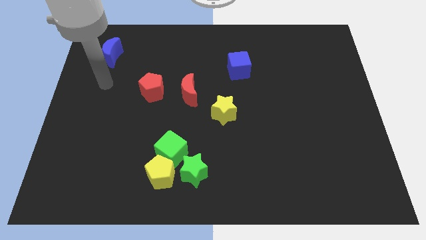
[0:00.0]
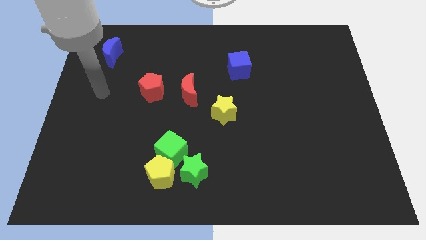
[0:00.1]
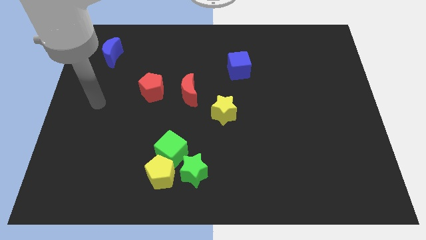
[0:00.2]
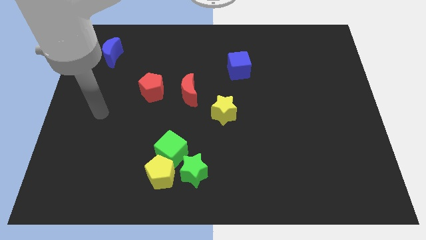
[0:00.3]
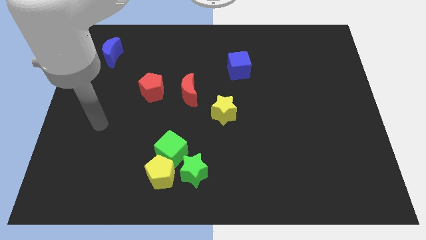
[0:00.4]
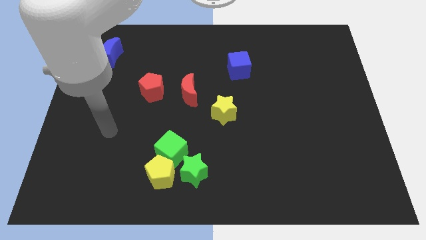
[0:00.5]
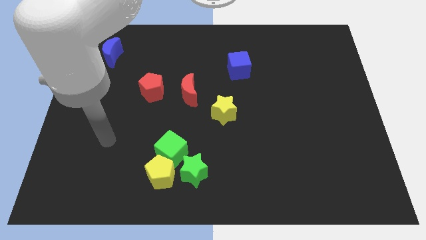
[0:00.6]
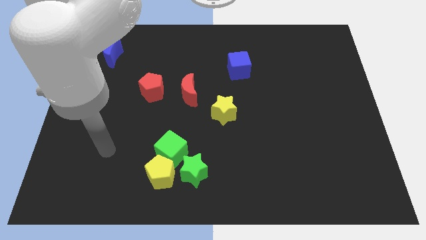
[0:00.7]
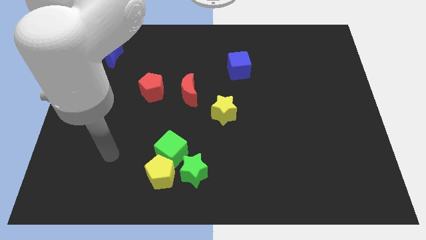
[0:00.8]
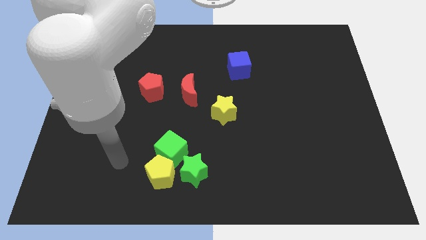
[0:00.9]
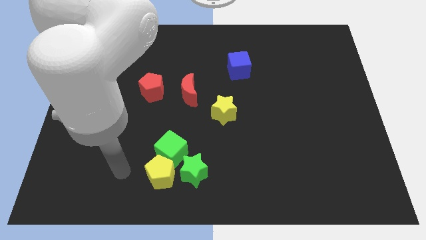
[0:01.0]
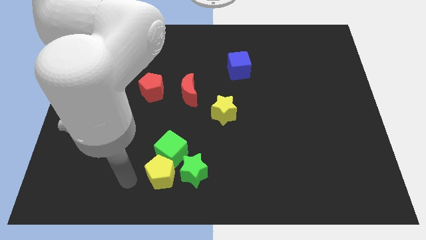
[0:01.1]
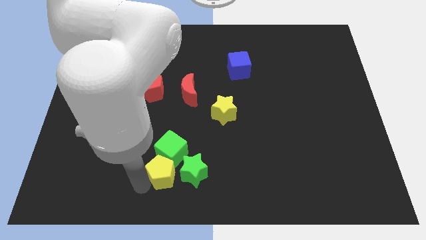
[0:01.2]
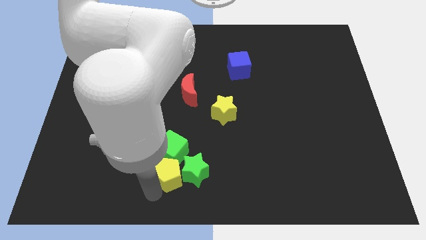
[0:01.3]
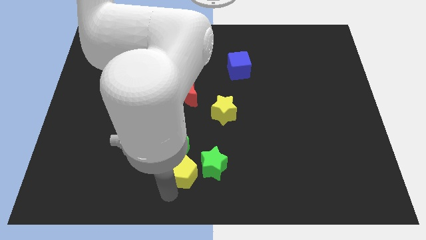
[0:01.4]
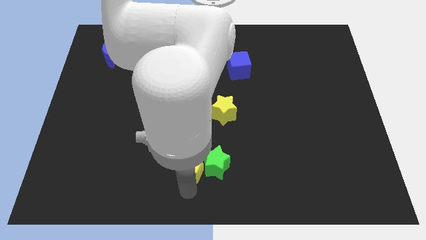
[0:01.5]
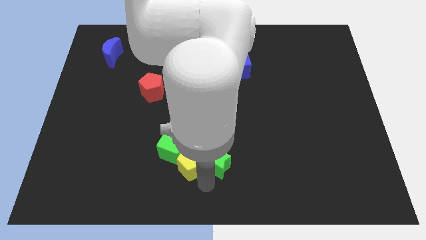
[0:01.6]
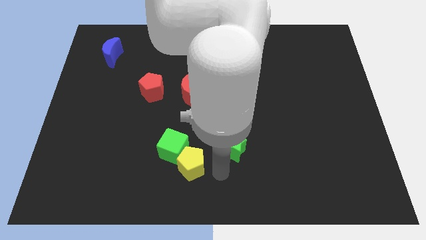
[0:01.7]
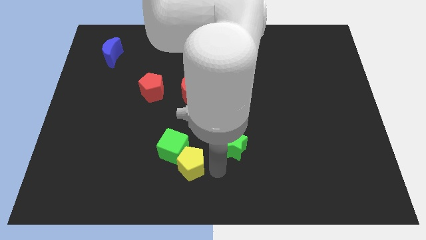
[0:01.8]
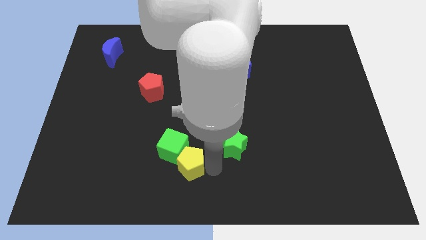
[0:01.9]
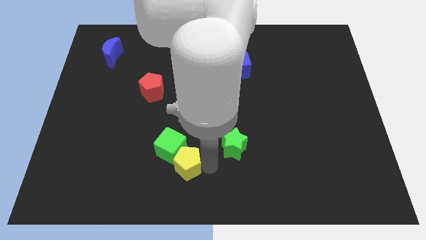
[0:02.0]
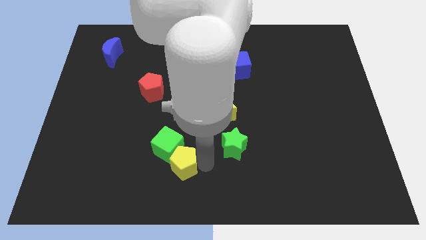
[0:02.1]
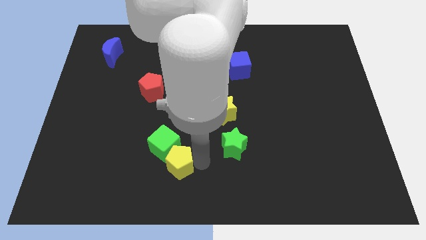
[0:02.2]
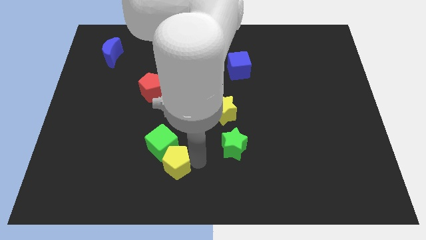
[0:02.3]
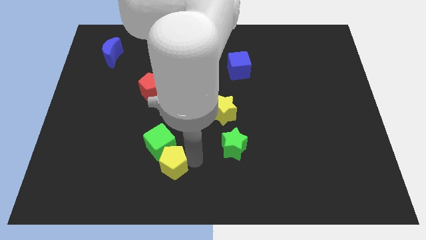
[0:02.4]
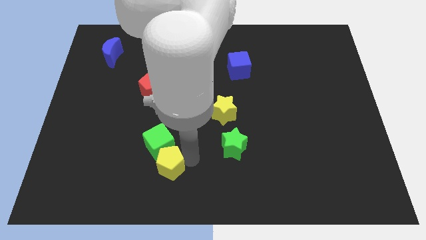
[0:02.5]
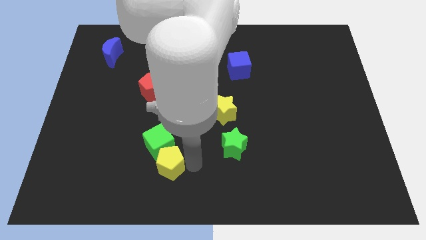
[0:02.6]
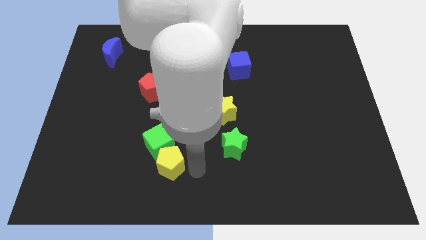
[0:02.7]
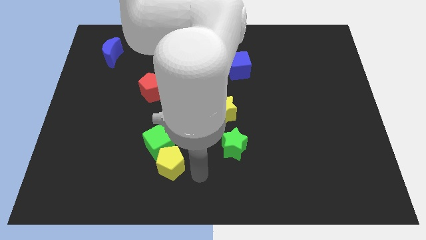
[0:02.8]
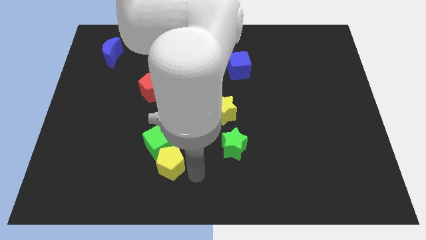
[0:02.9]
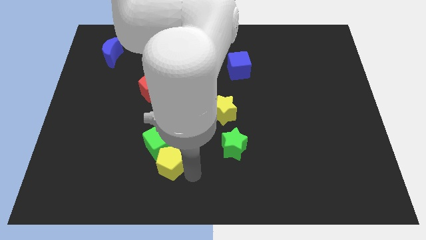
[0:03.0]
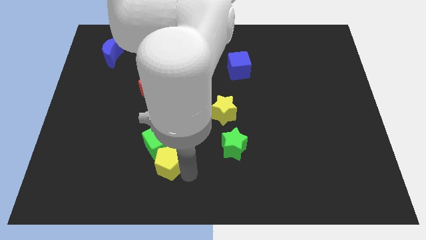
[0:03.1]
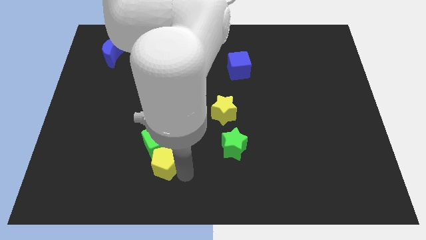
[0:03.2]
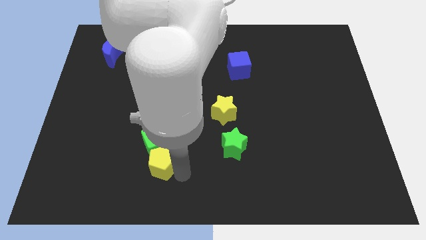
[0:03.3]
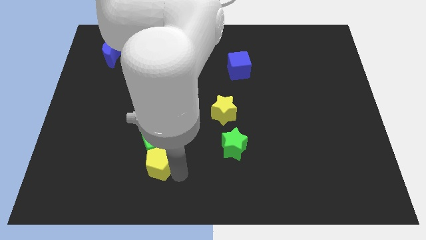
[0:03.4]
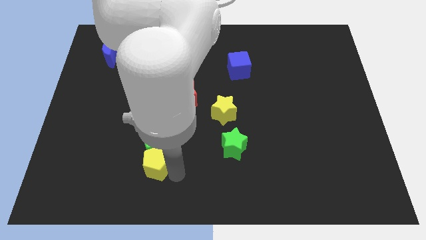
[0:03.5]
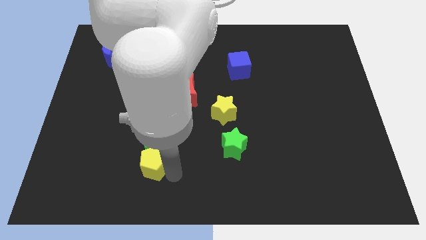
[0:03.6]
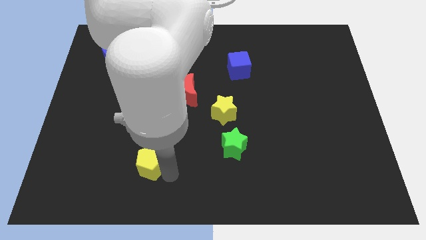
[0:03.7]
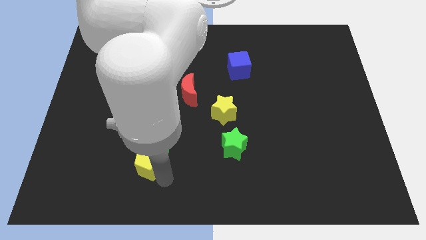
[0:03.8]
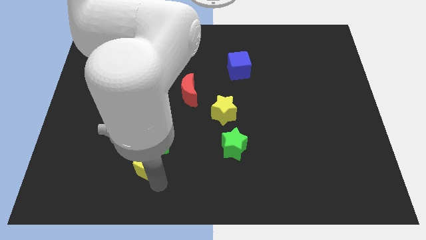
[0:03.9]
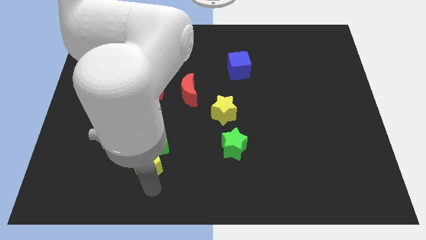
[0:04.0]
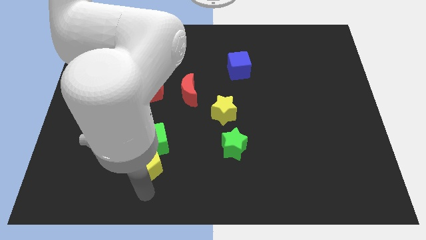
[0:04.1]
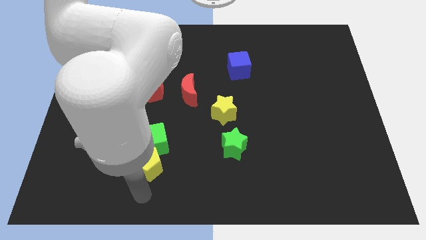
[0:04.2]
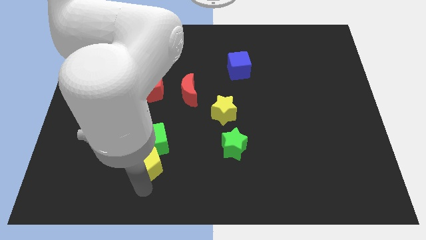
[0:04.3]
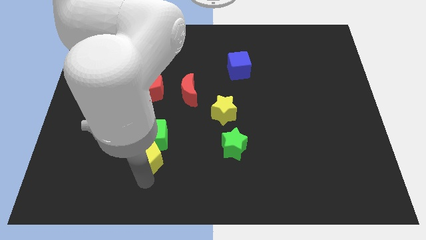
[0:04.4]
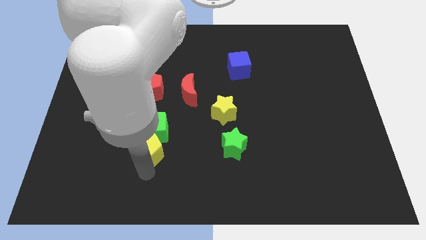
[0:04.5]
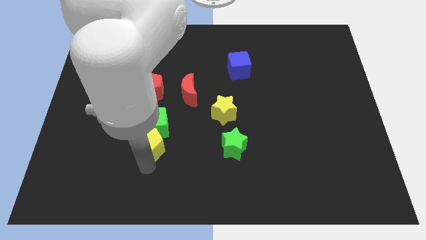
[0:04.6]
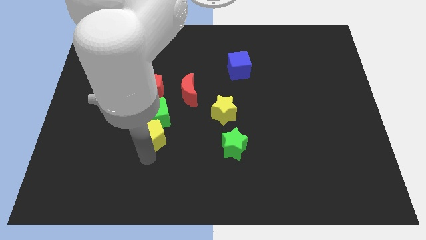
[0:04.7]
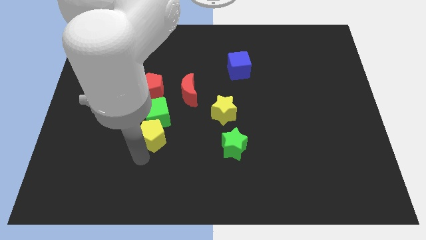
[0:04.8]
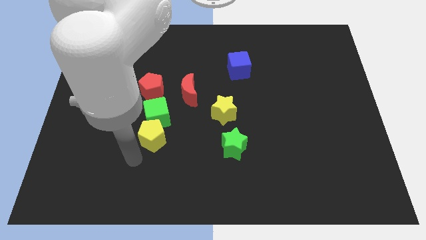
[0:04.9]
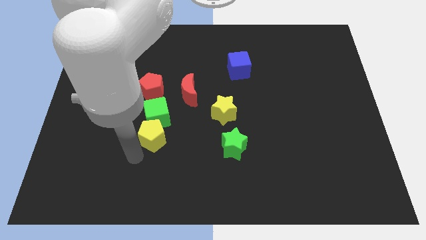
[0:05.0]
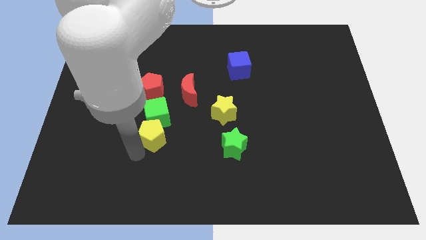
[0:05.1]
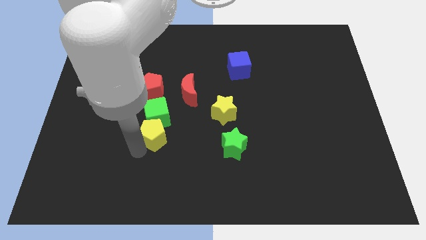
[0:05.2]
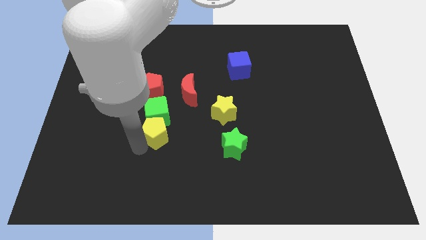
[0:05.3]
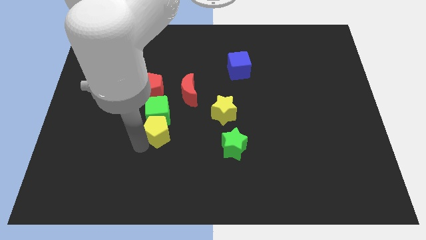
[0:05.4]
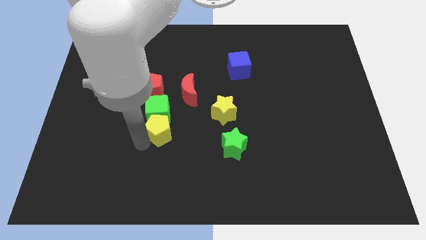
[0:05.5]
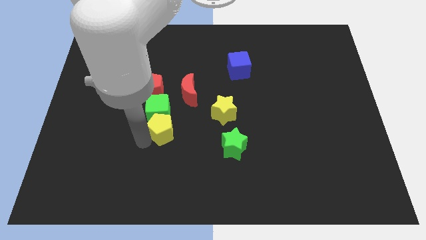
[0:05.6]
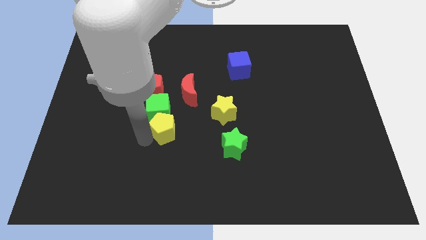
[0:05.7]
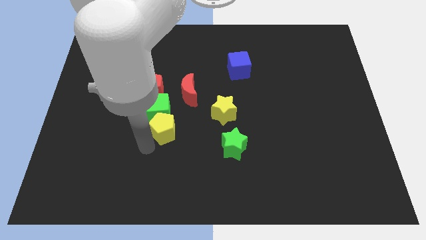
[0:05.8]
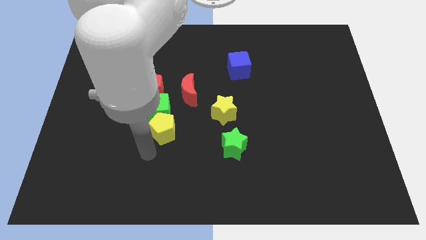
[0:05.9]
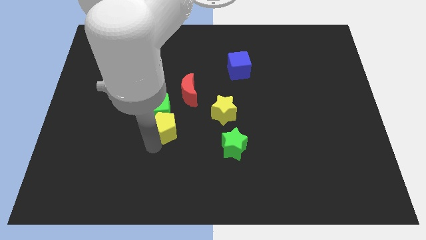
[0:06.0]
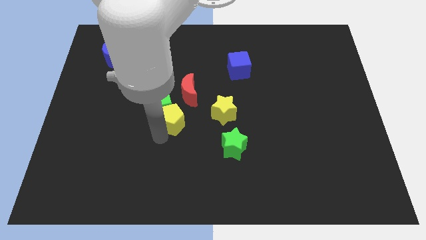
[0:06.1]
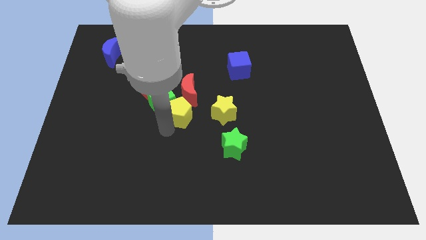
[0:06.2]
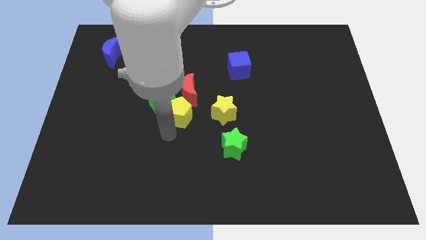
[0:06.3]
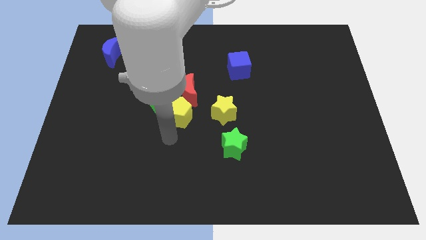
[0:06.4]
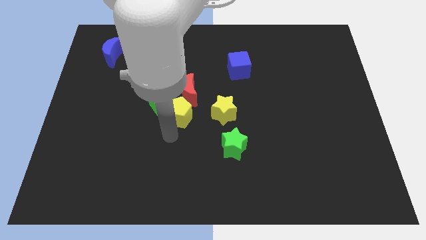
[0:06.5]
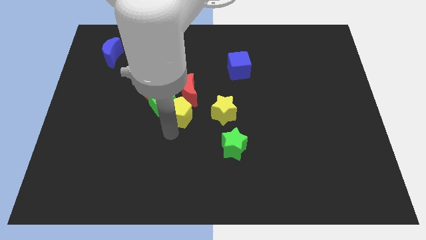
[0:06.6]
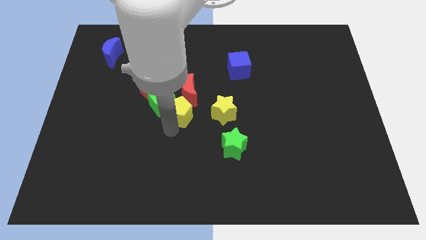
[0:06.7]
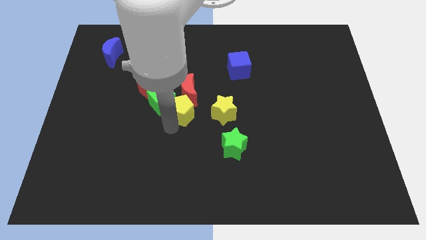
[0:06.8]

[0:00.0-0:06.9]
slide the yellow pentagon towards the red moon

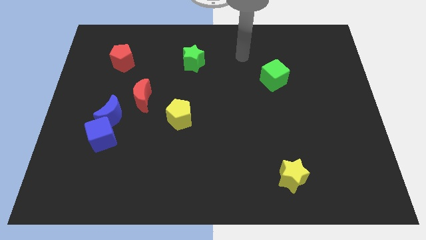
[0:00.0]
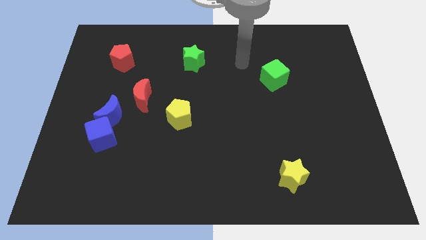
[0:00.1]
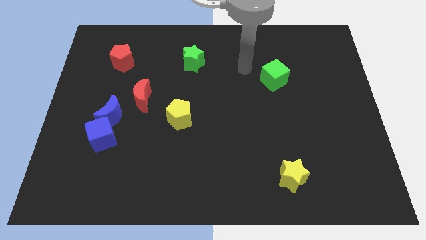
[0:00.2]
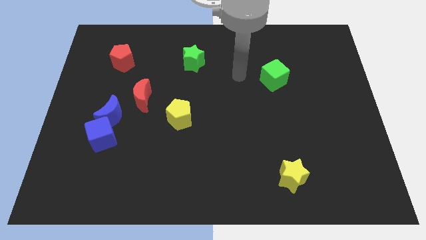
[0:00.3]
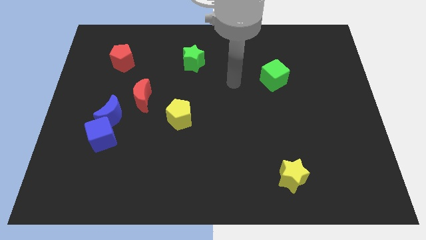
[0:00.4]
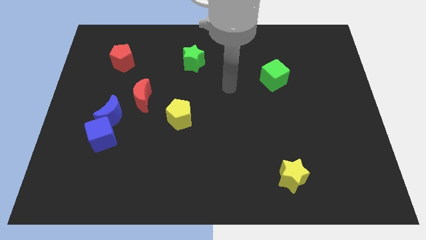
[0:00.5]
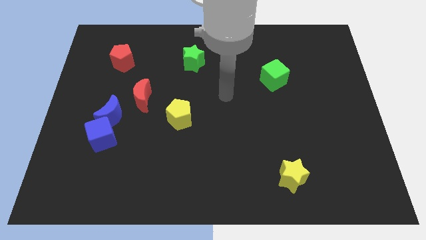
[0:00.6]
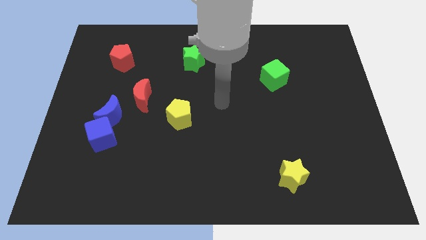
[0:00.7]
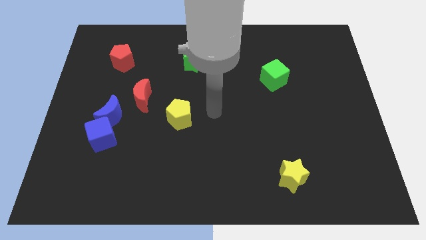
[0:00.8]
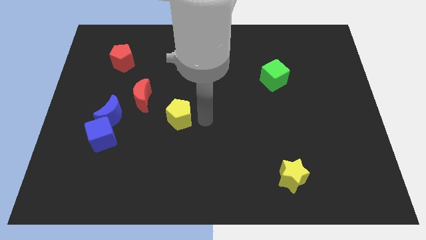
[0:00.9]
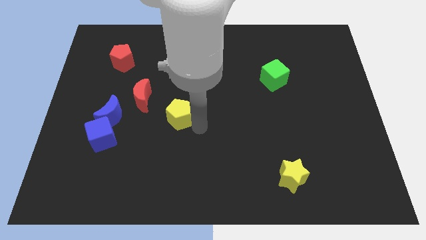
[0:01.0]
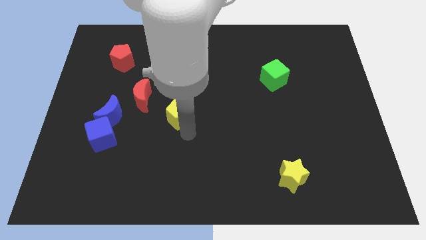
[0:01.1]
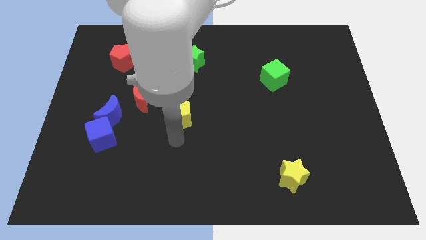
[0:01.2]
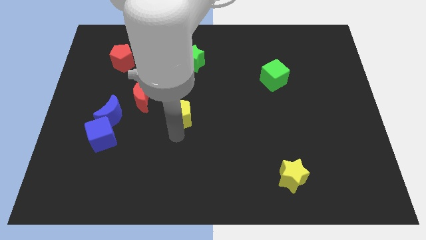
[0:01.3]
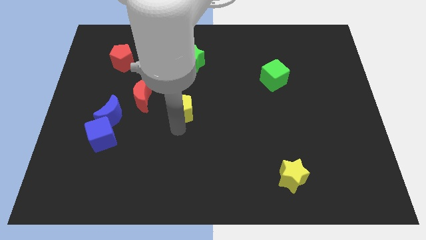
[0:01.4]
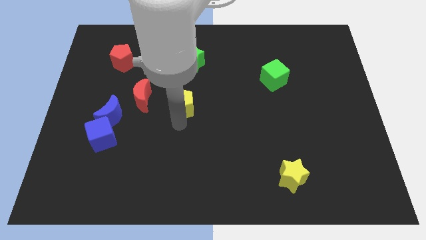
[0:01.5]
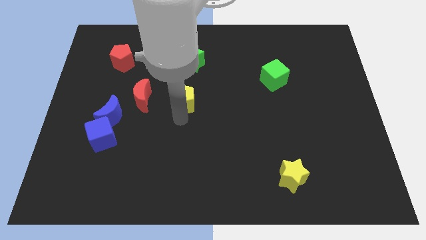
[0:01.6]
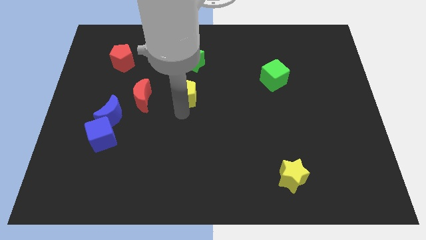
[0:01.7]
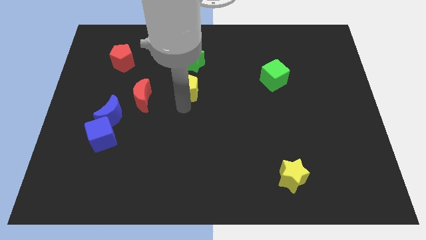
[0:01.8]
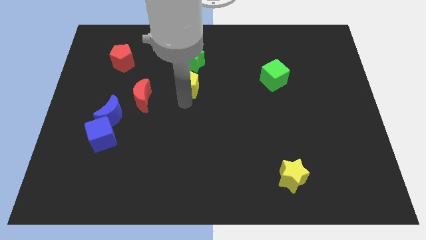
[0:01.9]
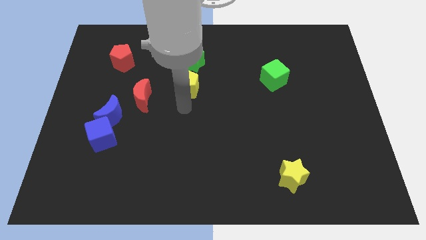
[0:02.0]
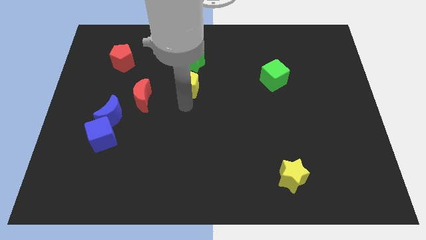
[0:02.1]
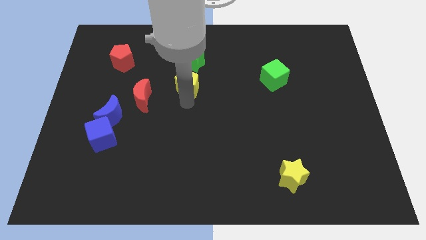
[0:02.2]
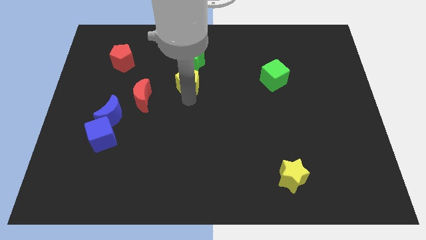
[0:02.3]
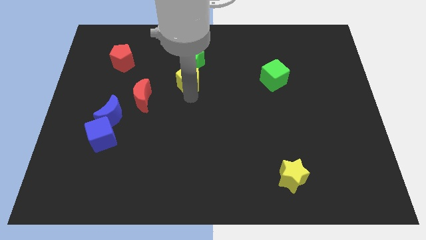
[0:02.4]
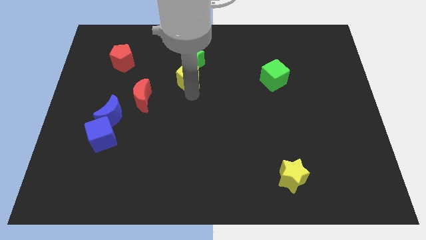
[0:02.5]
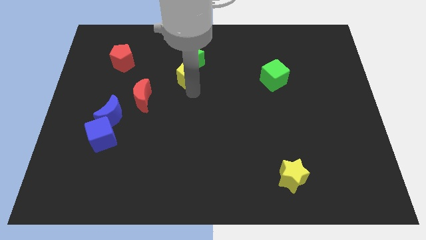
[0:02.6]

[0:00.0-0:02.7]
put the yellow pentagon next to the green star
